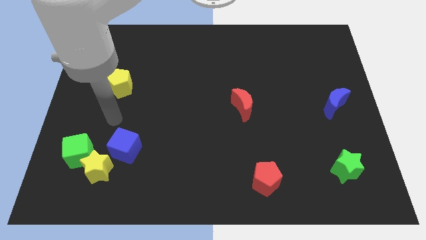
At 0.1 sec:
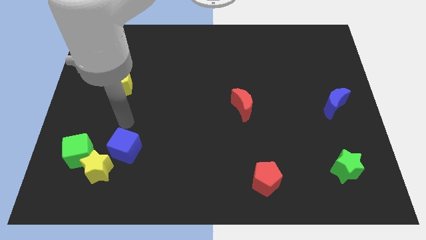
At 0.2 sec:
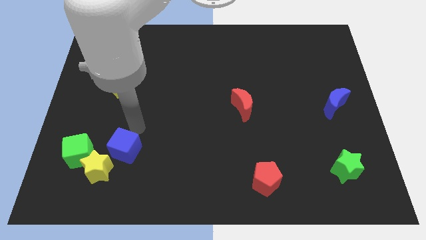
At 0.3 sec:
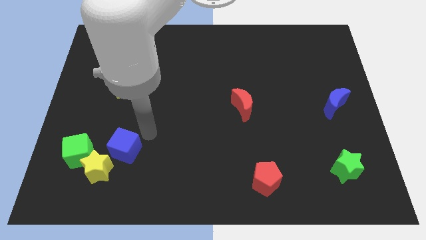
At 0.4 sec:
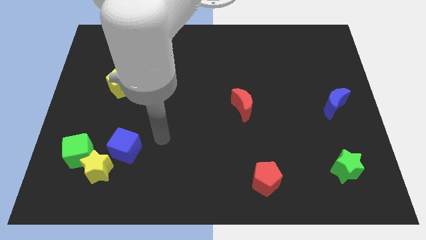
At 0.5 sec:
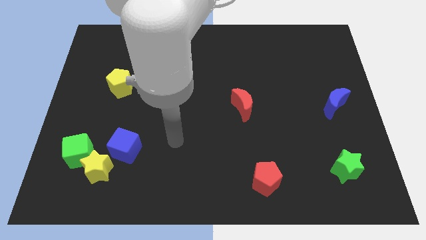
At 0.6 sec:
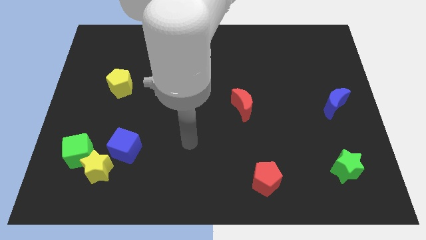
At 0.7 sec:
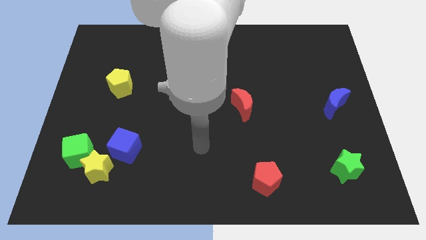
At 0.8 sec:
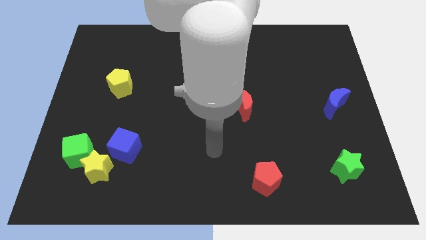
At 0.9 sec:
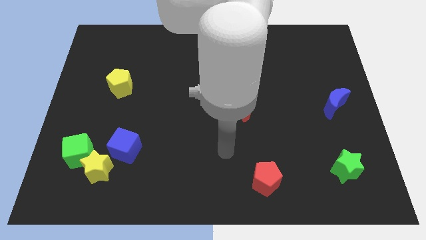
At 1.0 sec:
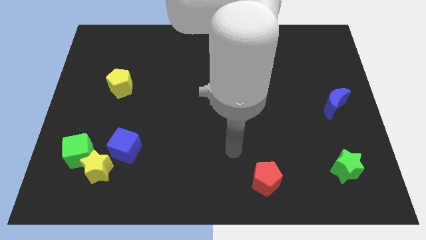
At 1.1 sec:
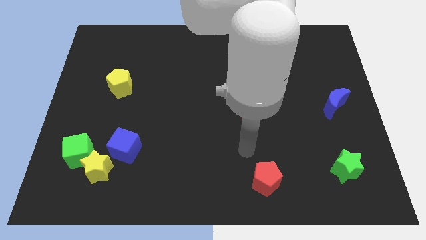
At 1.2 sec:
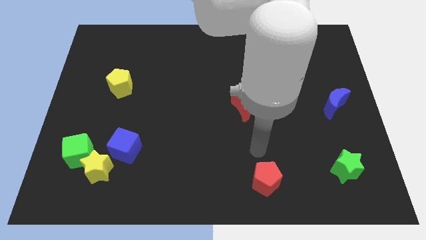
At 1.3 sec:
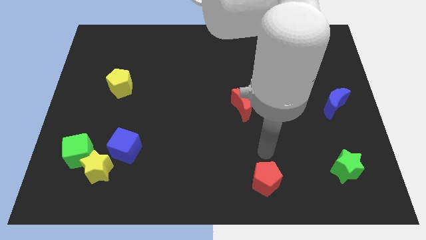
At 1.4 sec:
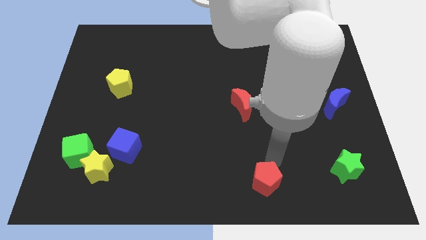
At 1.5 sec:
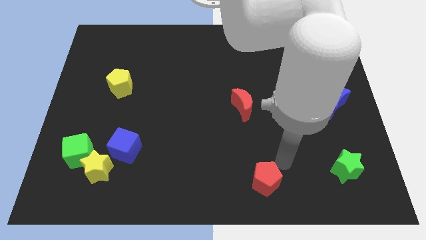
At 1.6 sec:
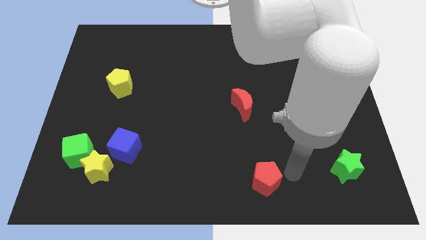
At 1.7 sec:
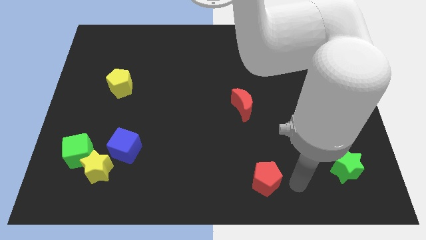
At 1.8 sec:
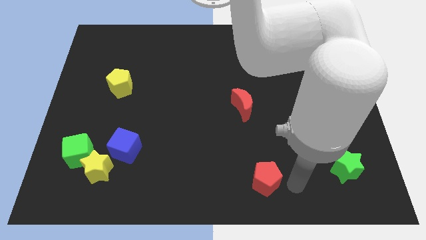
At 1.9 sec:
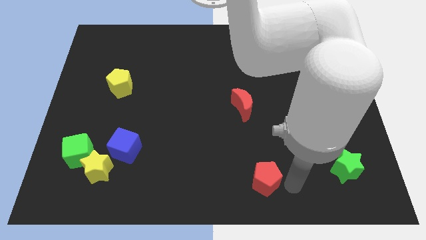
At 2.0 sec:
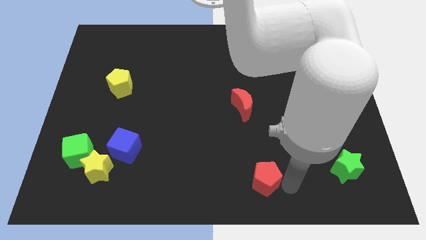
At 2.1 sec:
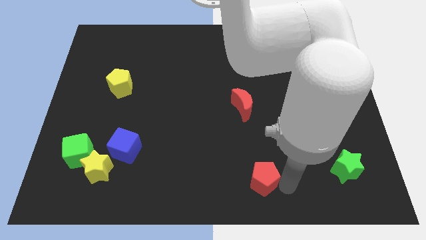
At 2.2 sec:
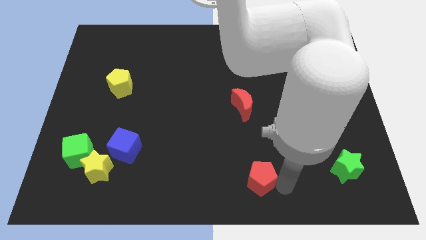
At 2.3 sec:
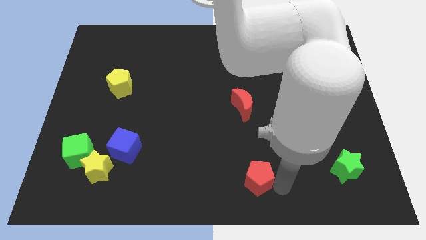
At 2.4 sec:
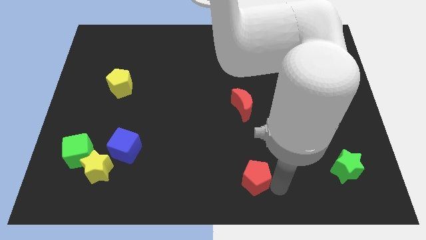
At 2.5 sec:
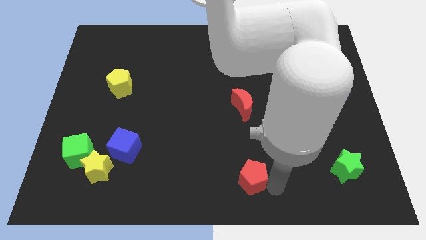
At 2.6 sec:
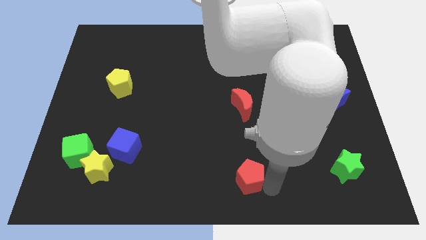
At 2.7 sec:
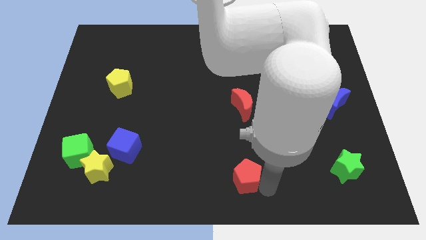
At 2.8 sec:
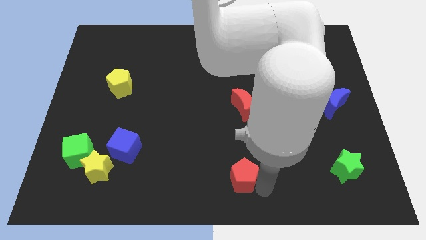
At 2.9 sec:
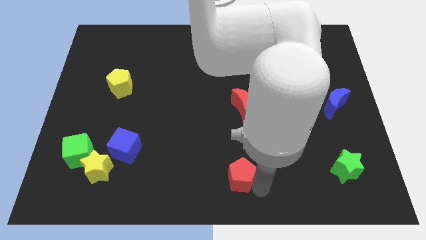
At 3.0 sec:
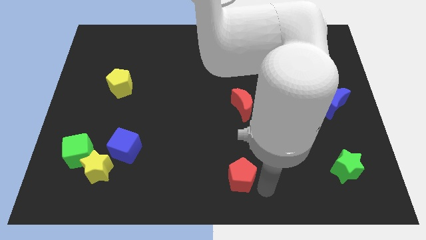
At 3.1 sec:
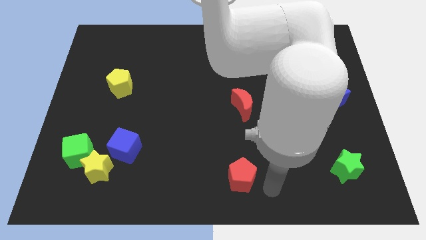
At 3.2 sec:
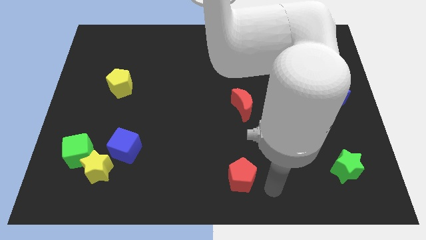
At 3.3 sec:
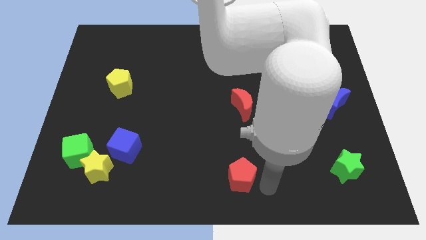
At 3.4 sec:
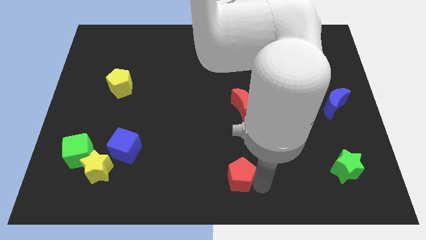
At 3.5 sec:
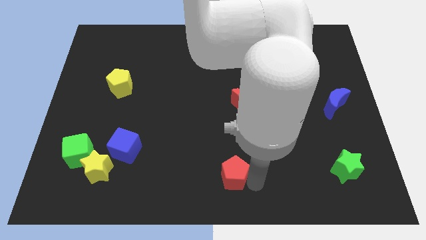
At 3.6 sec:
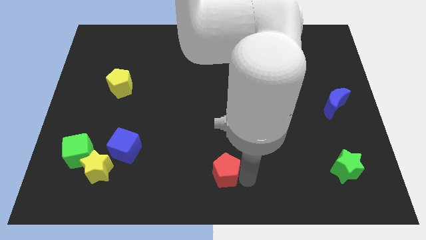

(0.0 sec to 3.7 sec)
slightly slide the red pentagon to the left

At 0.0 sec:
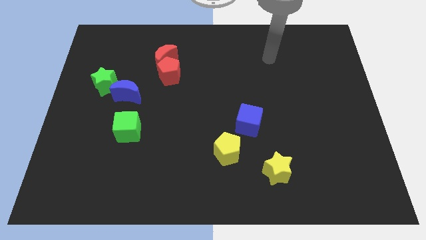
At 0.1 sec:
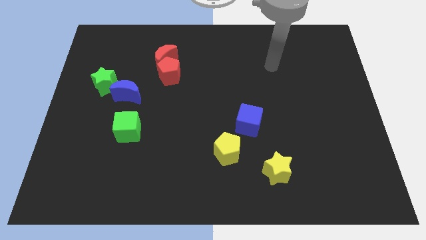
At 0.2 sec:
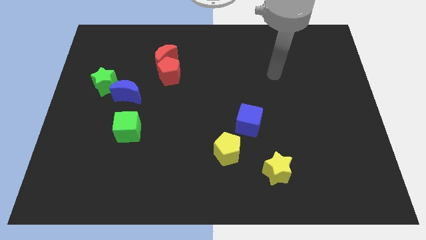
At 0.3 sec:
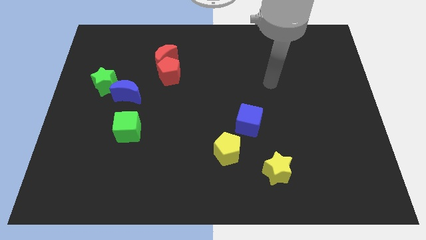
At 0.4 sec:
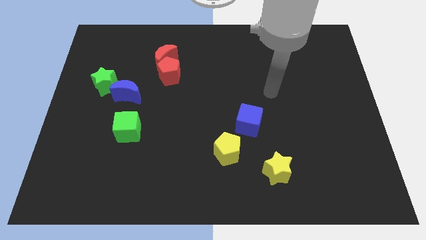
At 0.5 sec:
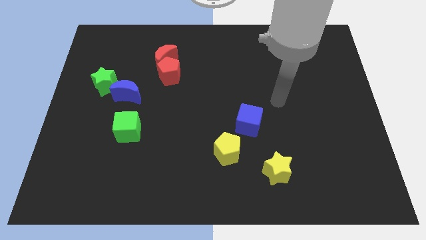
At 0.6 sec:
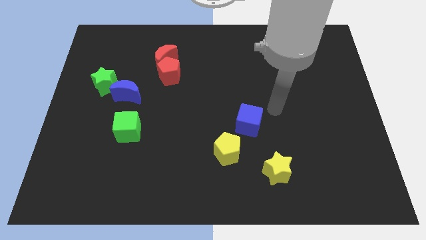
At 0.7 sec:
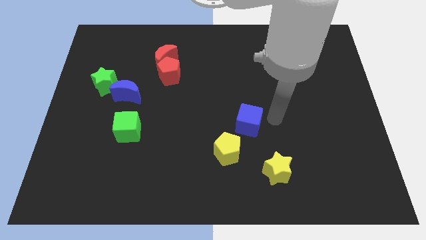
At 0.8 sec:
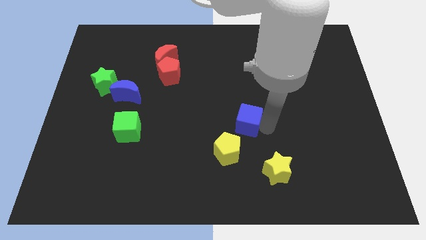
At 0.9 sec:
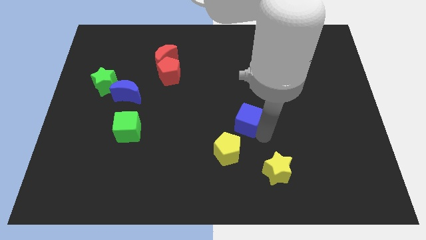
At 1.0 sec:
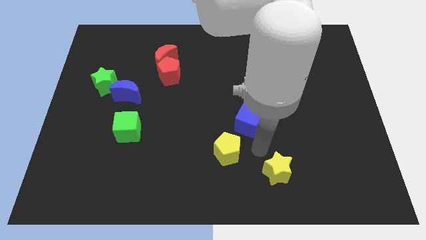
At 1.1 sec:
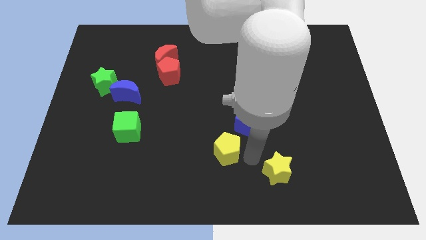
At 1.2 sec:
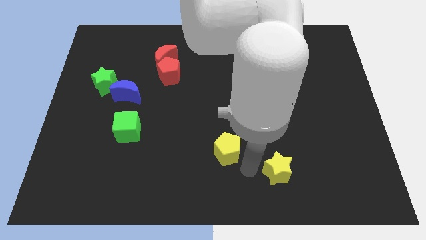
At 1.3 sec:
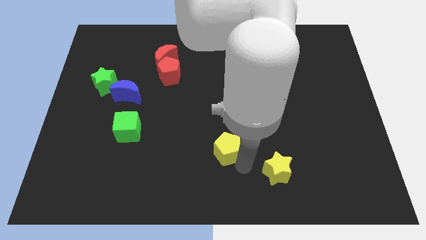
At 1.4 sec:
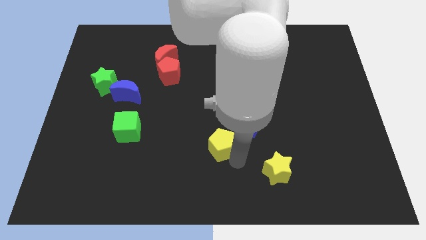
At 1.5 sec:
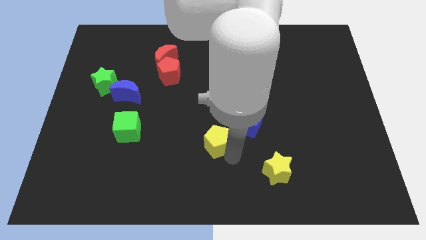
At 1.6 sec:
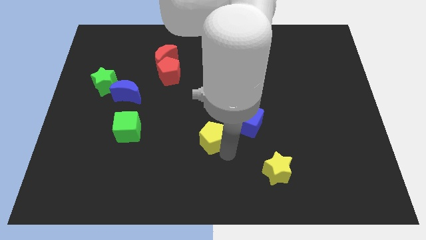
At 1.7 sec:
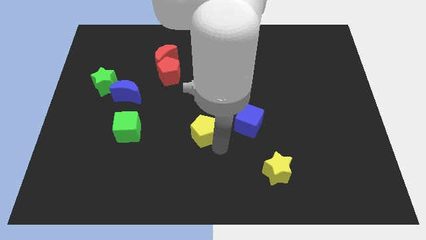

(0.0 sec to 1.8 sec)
move the yellow pentagon diagonally up and to the left a little bit

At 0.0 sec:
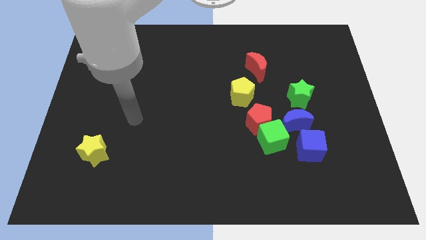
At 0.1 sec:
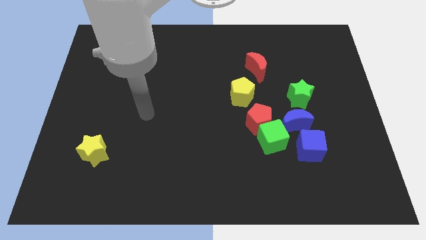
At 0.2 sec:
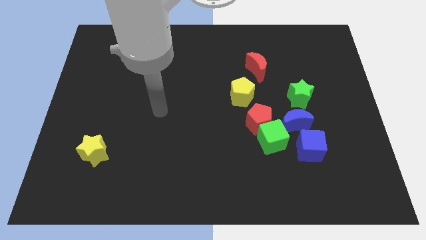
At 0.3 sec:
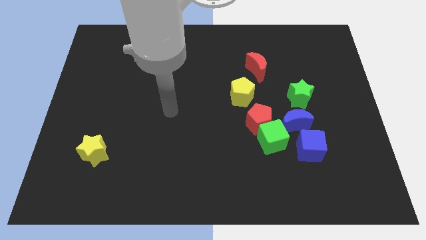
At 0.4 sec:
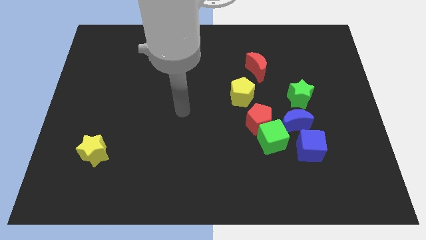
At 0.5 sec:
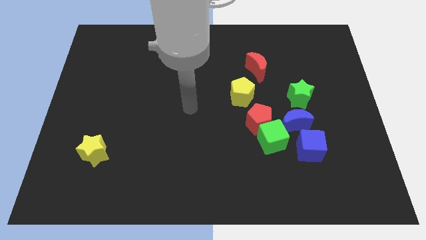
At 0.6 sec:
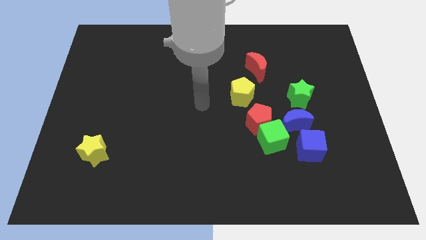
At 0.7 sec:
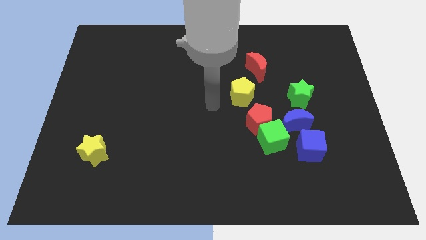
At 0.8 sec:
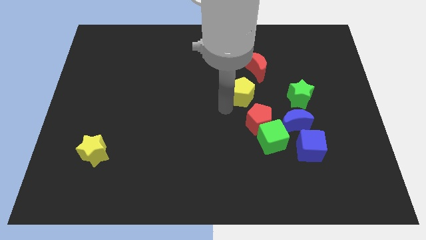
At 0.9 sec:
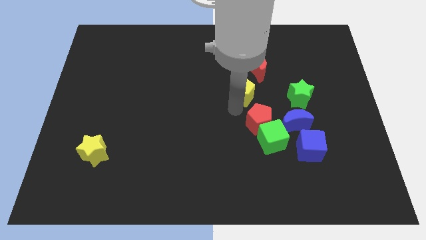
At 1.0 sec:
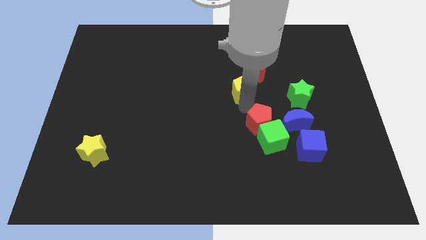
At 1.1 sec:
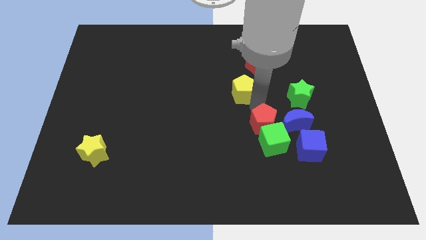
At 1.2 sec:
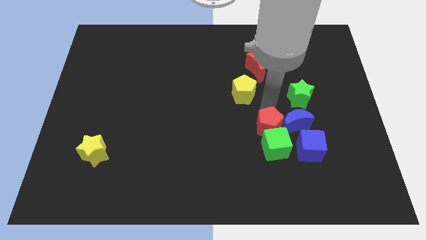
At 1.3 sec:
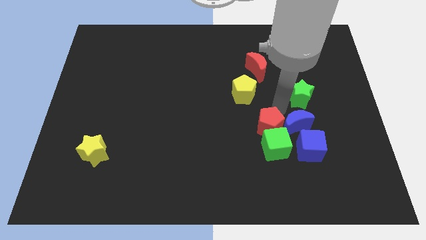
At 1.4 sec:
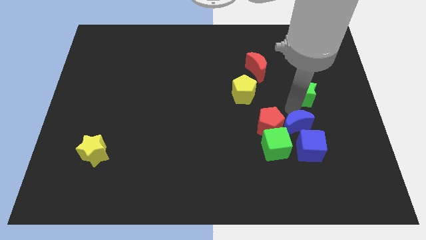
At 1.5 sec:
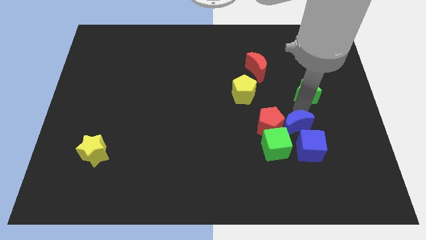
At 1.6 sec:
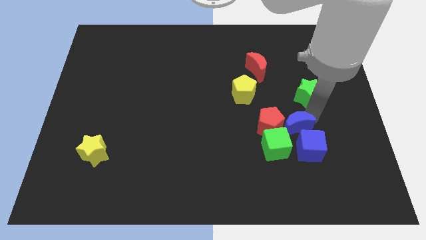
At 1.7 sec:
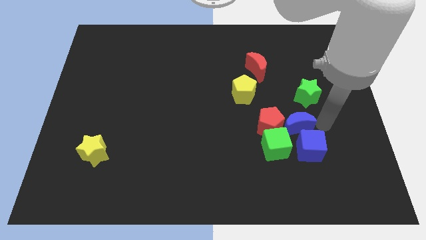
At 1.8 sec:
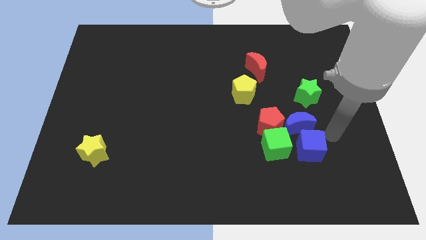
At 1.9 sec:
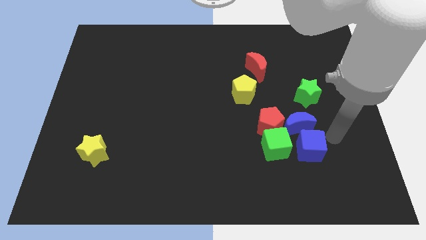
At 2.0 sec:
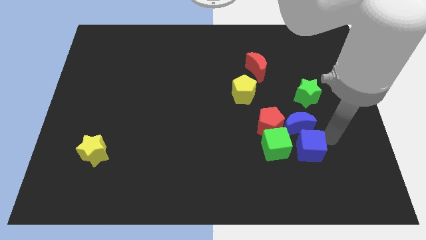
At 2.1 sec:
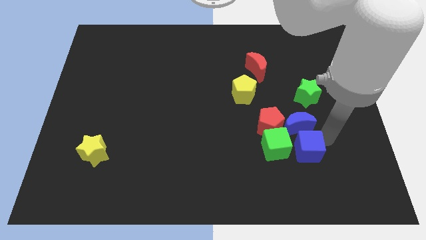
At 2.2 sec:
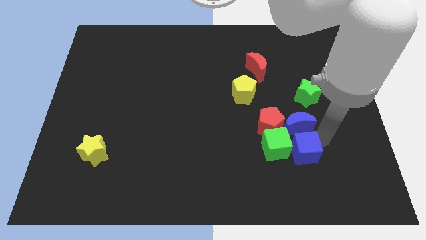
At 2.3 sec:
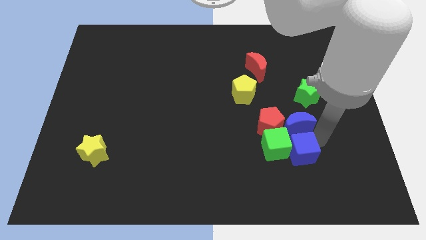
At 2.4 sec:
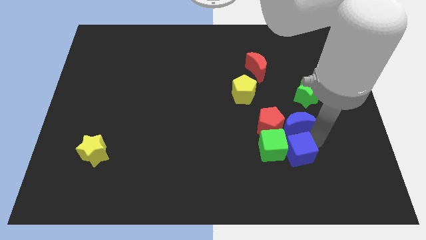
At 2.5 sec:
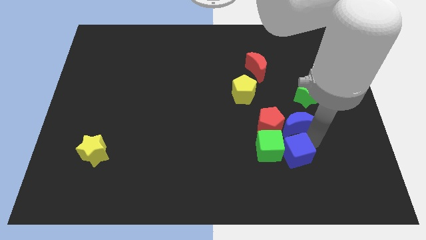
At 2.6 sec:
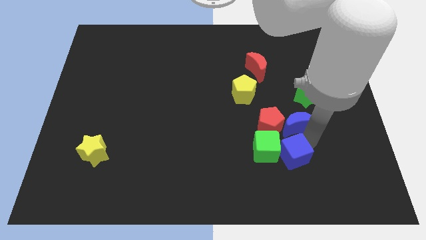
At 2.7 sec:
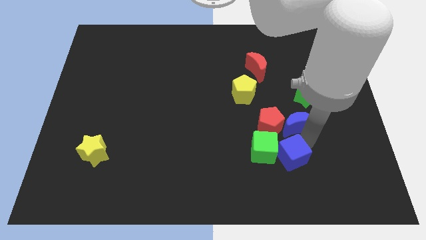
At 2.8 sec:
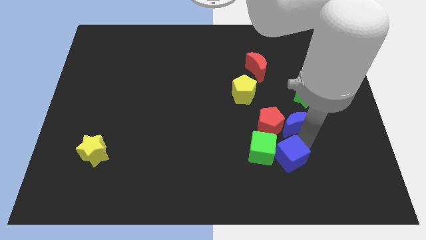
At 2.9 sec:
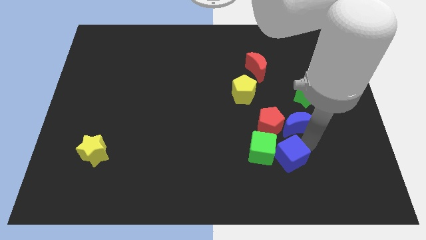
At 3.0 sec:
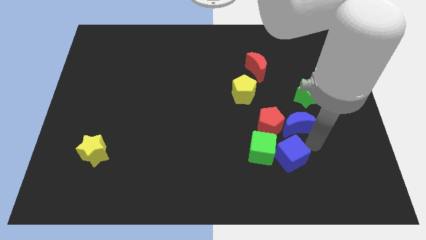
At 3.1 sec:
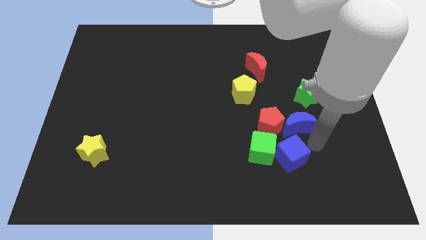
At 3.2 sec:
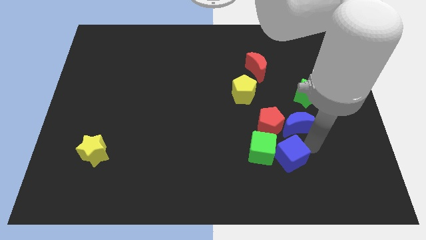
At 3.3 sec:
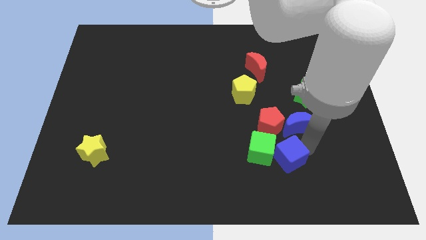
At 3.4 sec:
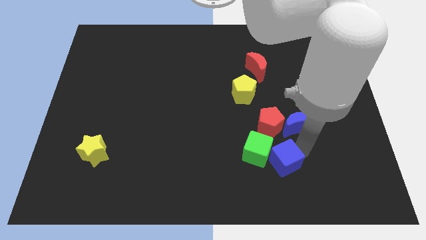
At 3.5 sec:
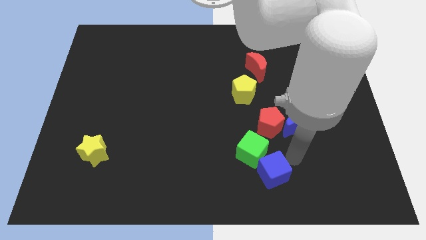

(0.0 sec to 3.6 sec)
slide the blue cube left a little bit
